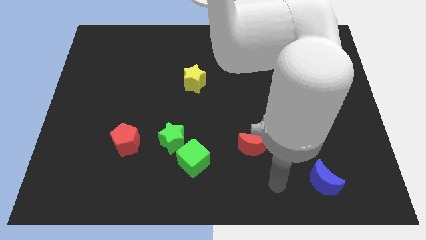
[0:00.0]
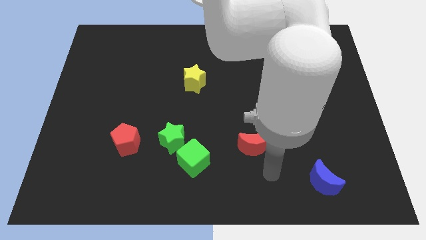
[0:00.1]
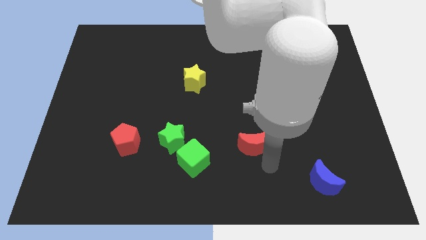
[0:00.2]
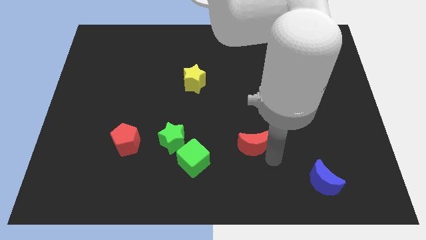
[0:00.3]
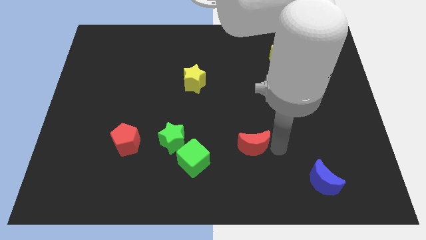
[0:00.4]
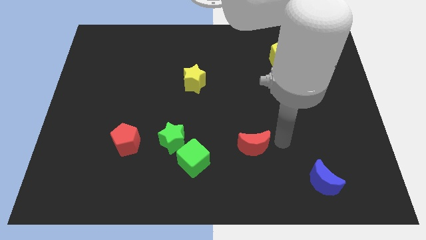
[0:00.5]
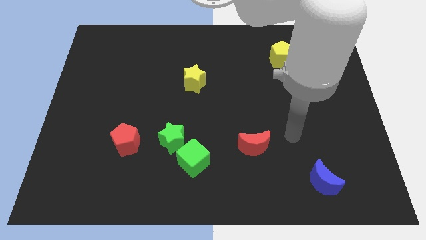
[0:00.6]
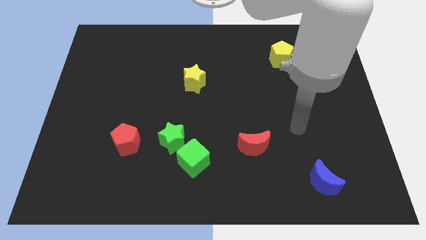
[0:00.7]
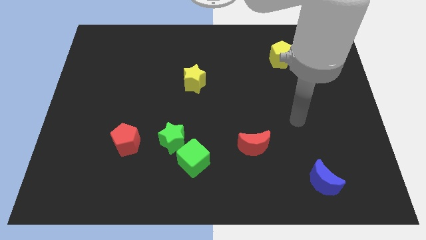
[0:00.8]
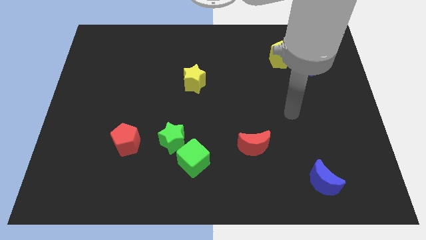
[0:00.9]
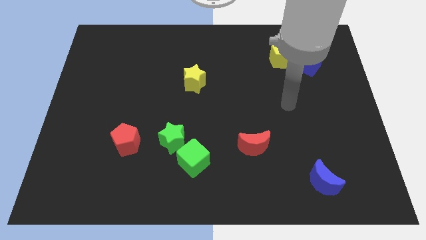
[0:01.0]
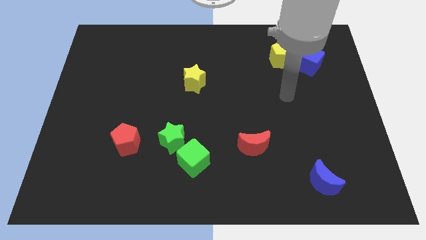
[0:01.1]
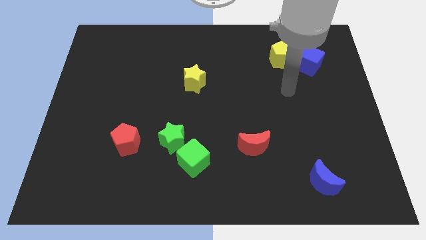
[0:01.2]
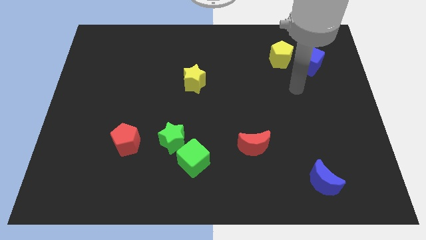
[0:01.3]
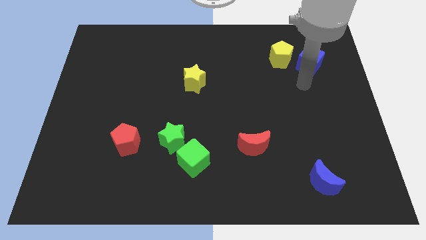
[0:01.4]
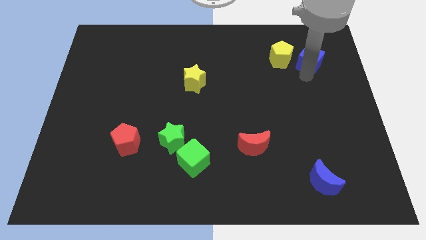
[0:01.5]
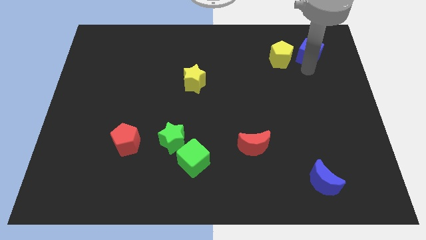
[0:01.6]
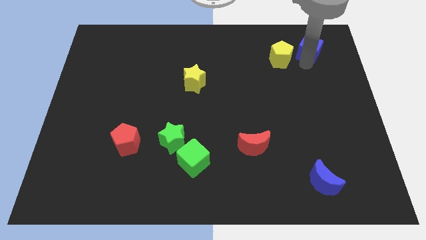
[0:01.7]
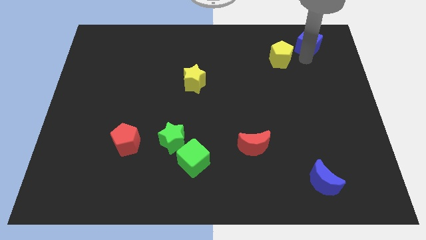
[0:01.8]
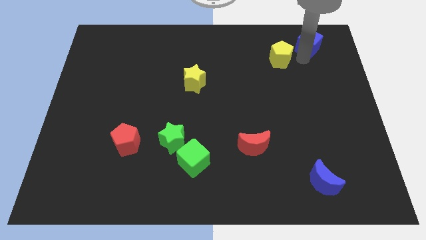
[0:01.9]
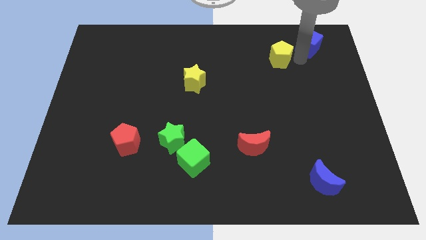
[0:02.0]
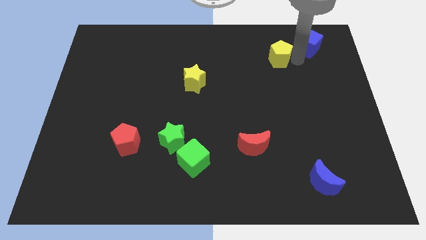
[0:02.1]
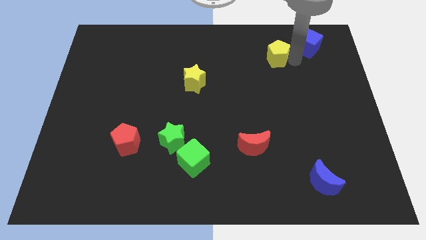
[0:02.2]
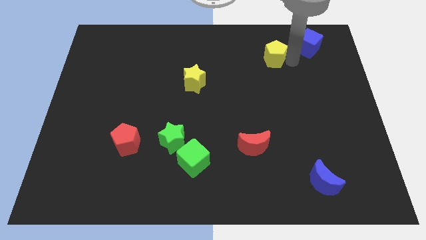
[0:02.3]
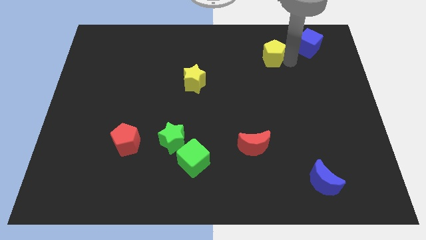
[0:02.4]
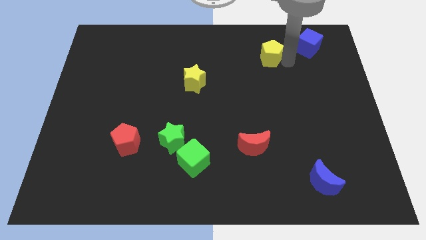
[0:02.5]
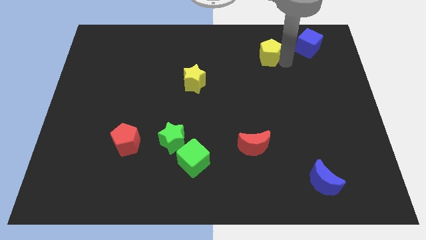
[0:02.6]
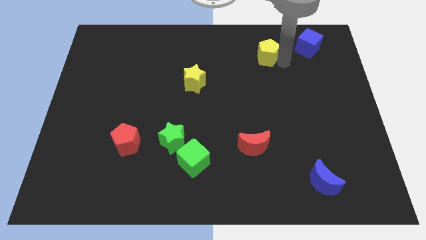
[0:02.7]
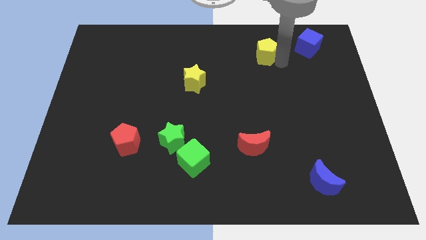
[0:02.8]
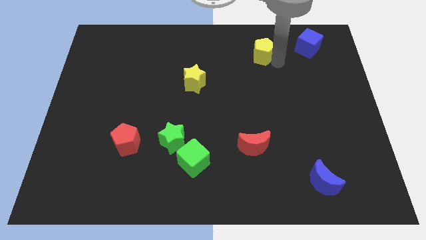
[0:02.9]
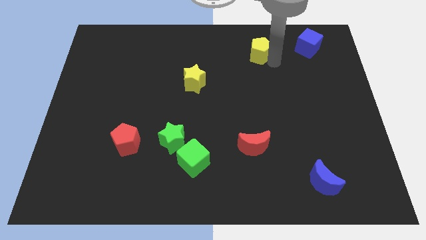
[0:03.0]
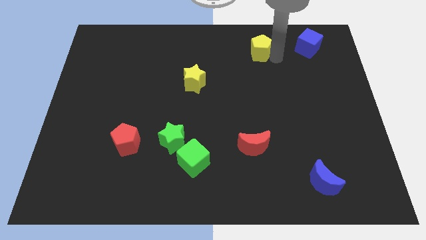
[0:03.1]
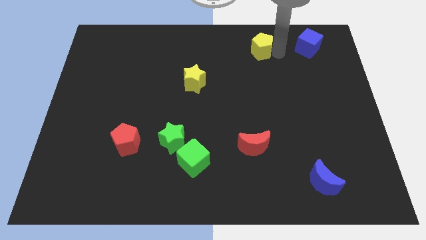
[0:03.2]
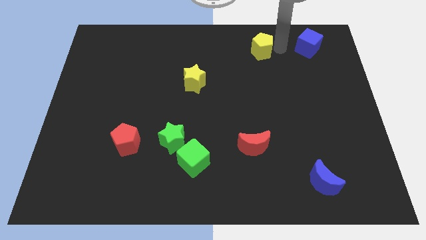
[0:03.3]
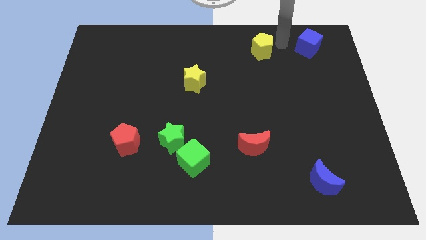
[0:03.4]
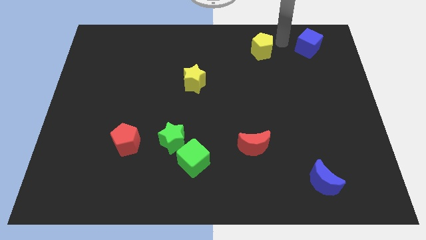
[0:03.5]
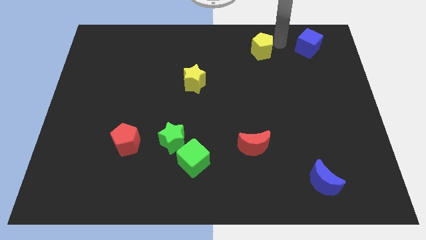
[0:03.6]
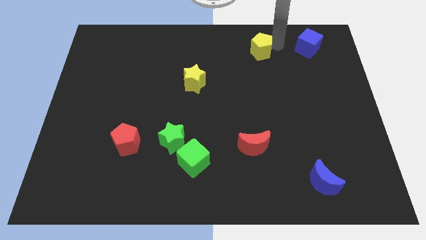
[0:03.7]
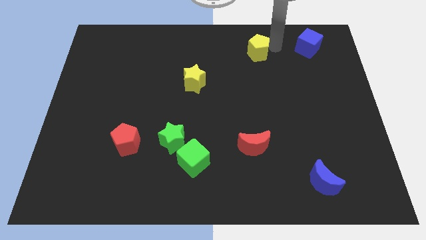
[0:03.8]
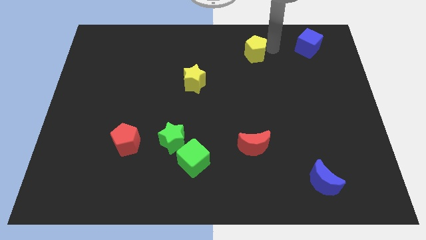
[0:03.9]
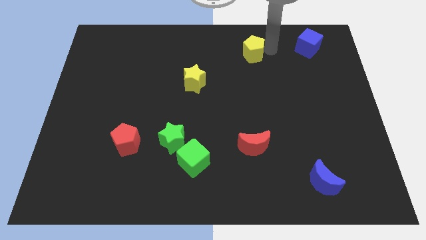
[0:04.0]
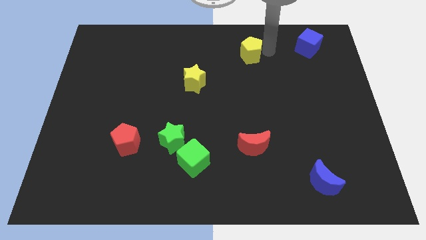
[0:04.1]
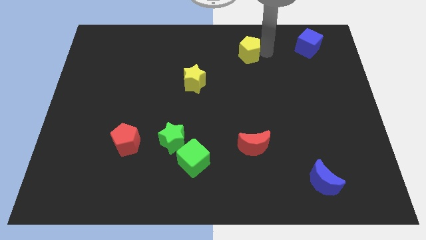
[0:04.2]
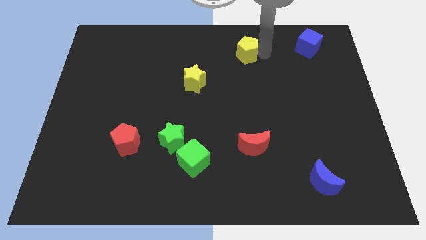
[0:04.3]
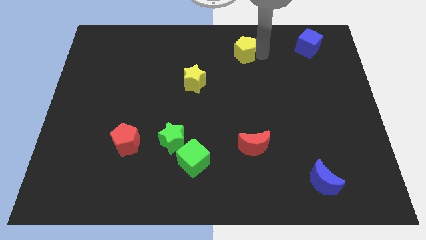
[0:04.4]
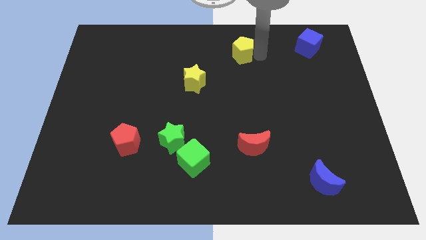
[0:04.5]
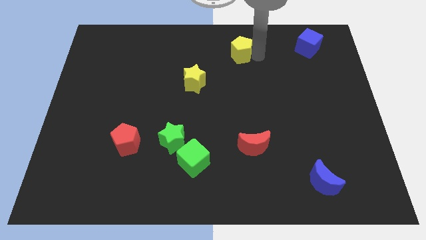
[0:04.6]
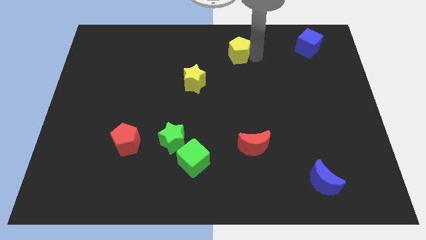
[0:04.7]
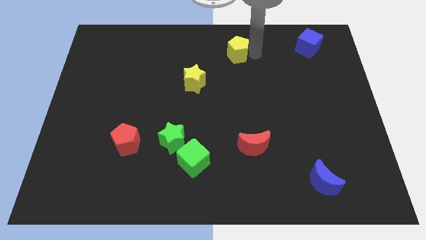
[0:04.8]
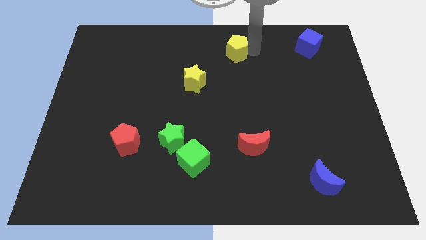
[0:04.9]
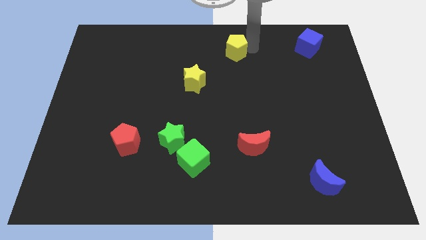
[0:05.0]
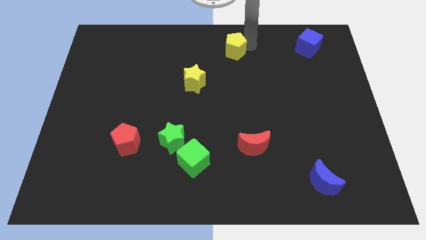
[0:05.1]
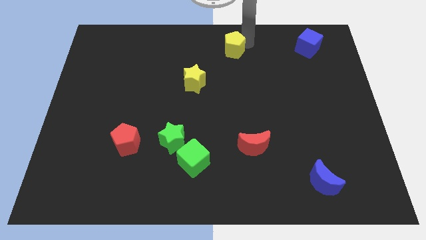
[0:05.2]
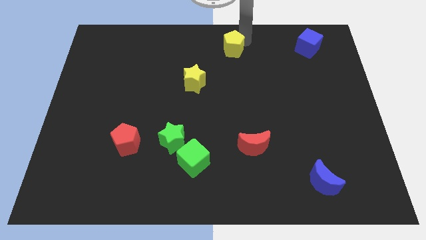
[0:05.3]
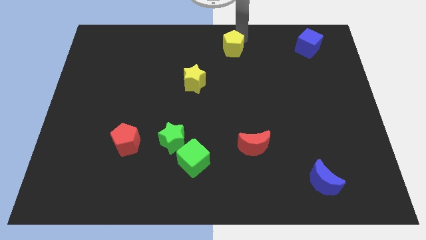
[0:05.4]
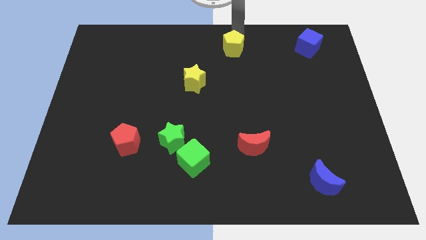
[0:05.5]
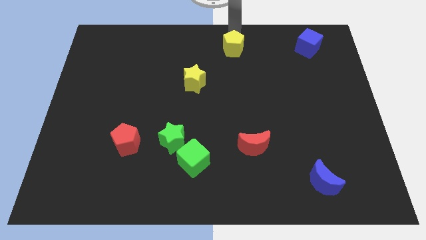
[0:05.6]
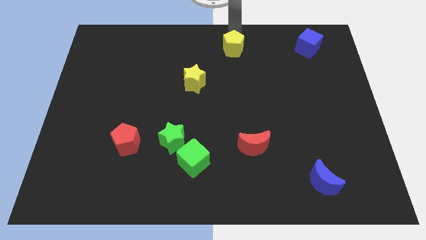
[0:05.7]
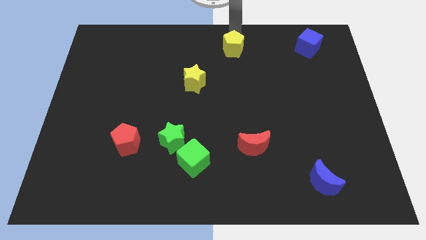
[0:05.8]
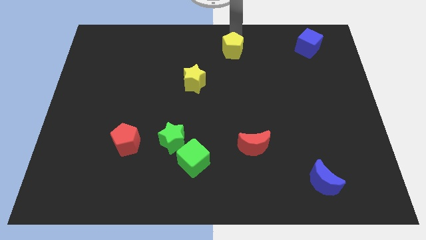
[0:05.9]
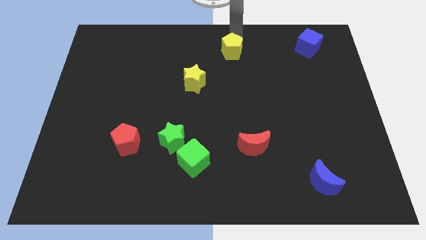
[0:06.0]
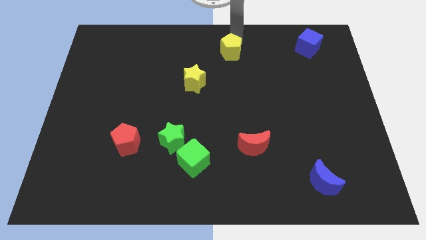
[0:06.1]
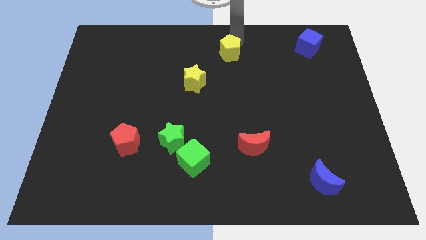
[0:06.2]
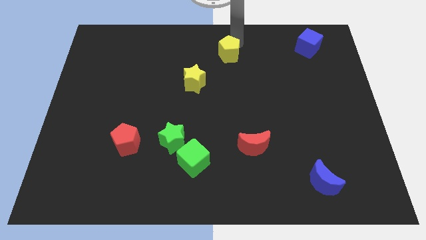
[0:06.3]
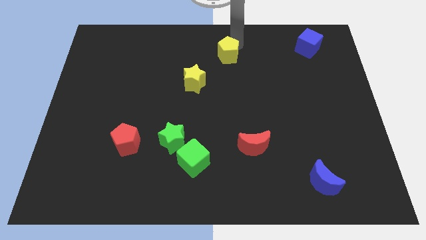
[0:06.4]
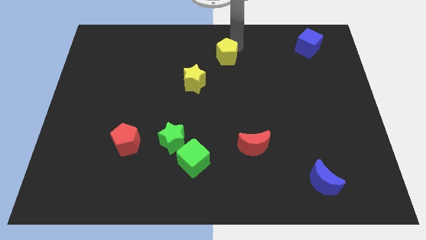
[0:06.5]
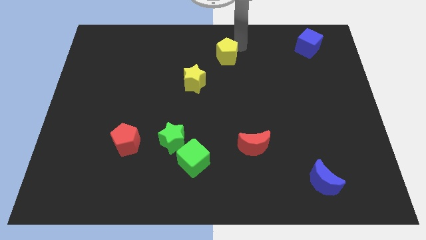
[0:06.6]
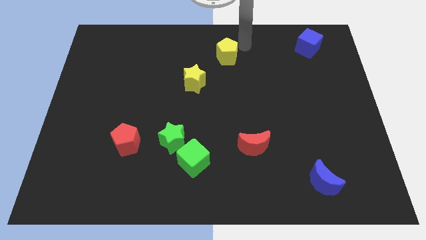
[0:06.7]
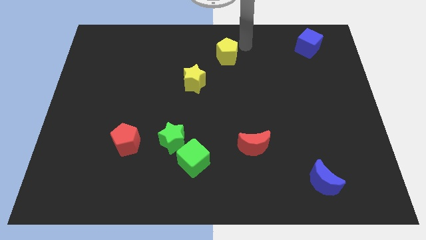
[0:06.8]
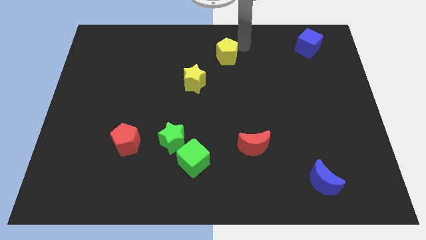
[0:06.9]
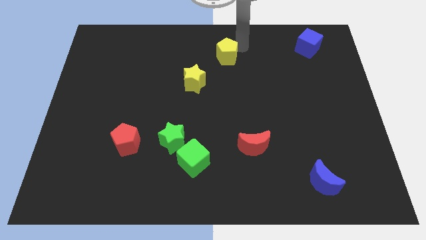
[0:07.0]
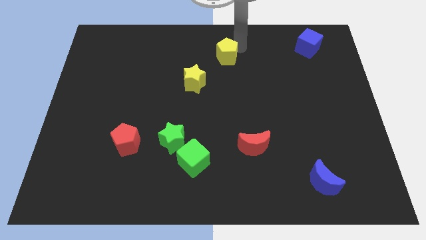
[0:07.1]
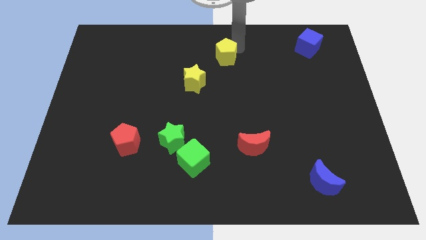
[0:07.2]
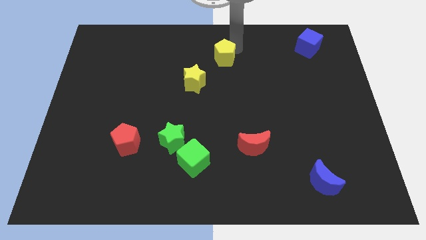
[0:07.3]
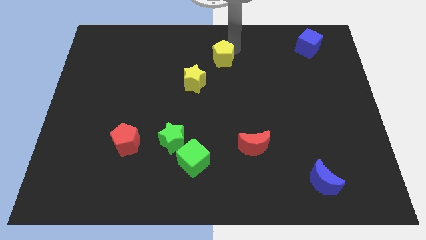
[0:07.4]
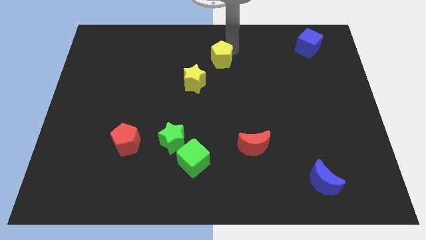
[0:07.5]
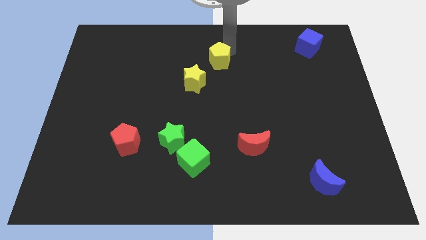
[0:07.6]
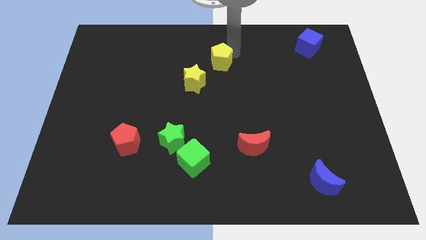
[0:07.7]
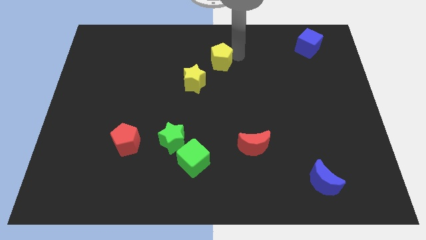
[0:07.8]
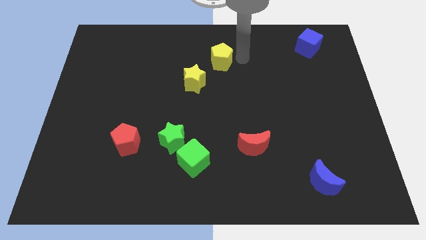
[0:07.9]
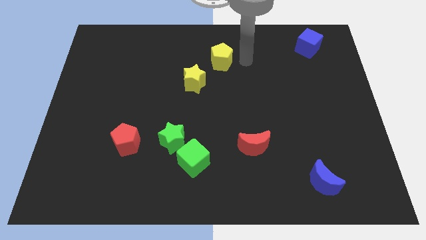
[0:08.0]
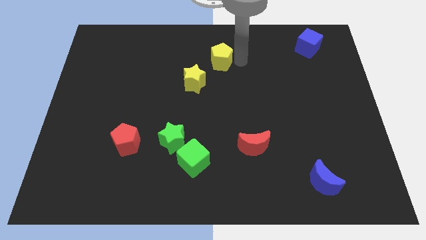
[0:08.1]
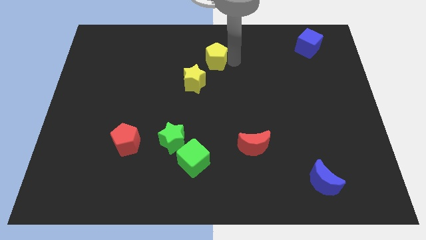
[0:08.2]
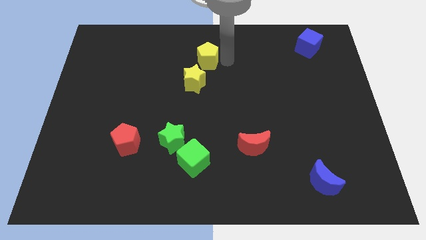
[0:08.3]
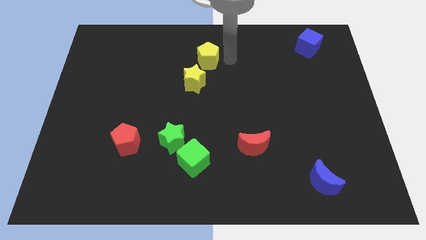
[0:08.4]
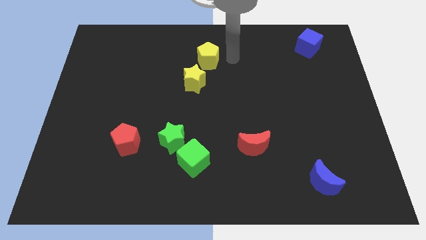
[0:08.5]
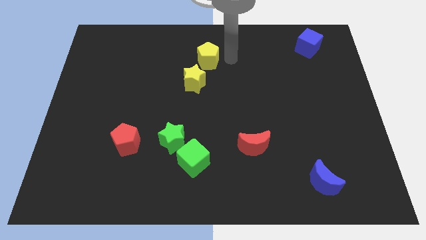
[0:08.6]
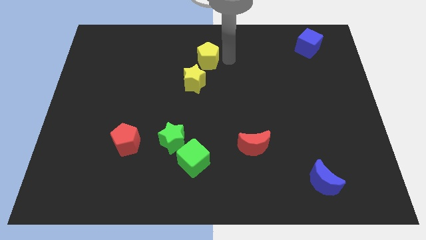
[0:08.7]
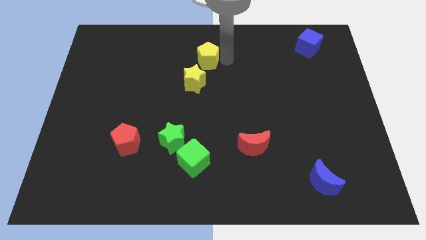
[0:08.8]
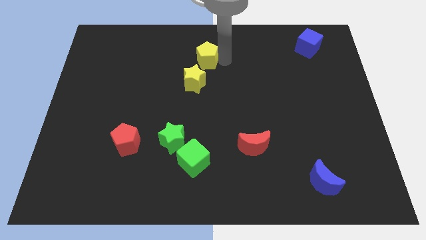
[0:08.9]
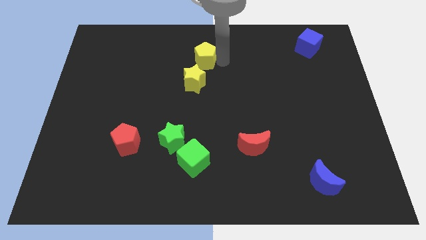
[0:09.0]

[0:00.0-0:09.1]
move the yellow pentagon to the left
